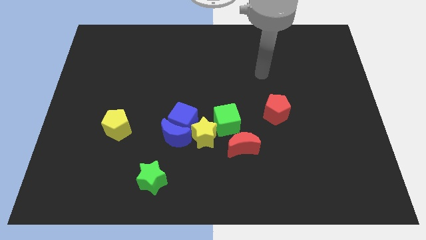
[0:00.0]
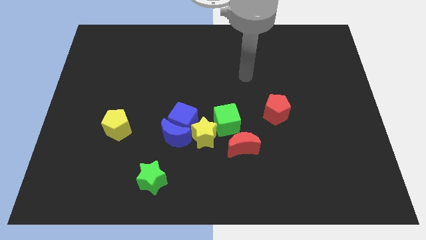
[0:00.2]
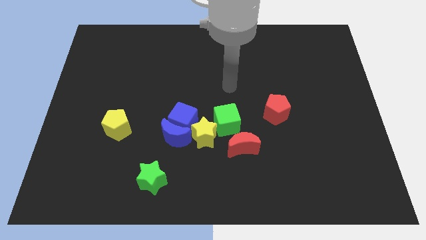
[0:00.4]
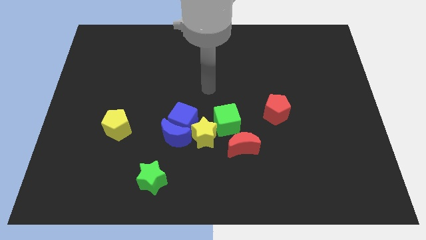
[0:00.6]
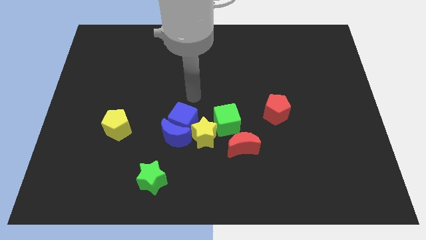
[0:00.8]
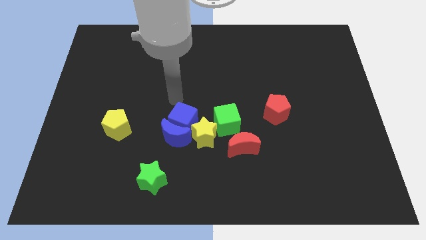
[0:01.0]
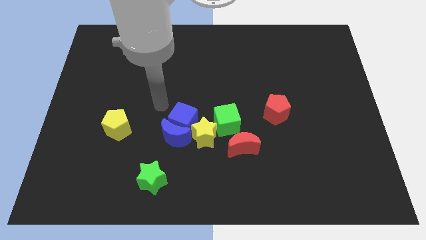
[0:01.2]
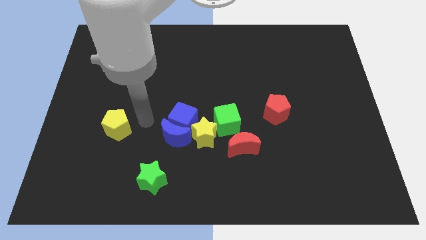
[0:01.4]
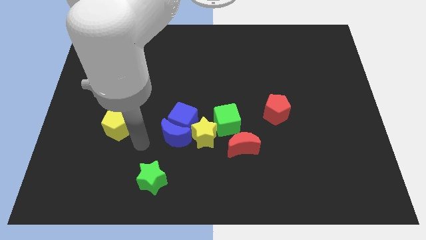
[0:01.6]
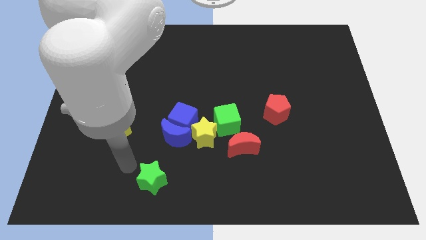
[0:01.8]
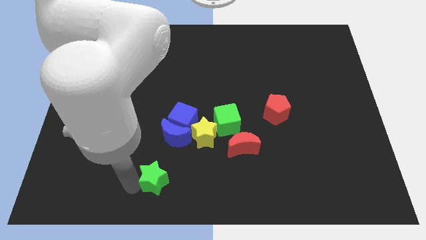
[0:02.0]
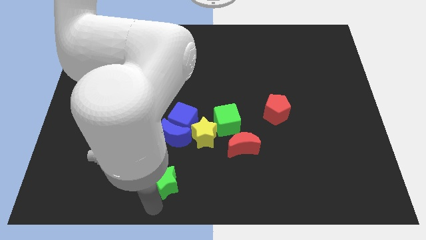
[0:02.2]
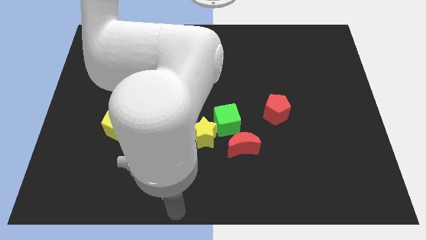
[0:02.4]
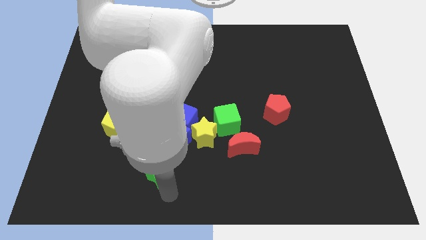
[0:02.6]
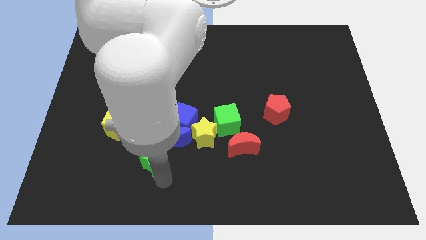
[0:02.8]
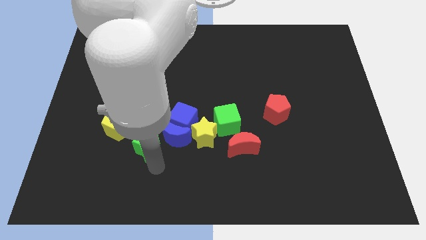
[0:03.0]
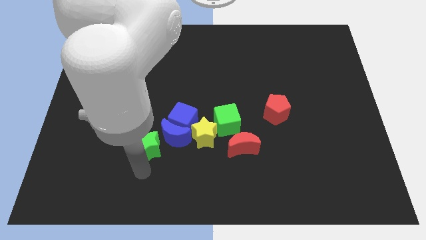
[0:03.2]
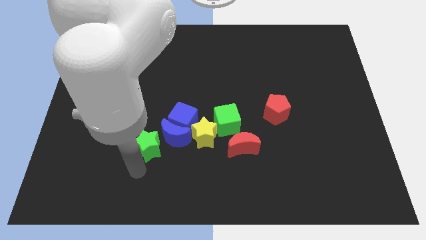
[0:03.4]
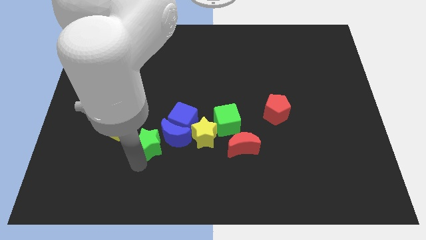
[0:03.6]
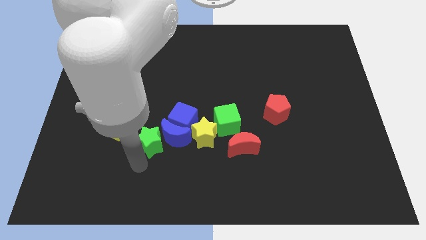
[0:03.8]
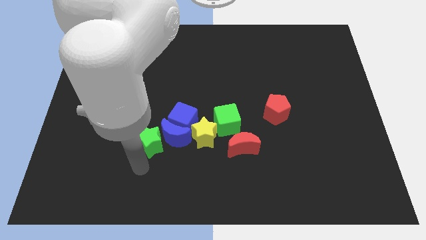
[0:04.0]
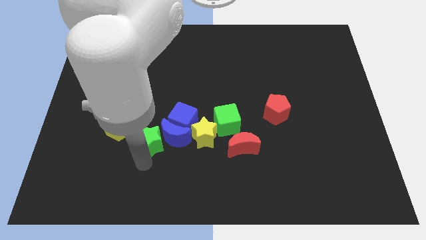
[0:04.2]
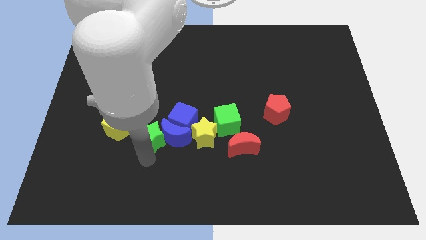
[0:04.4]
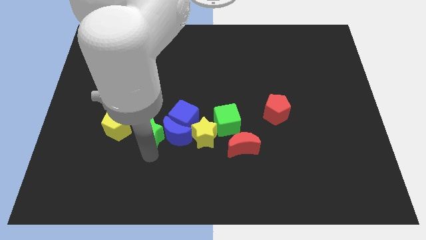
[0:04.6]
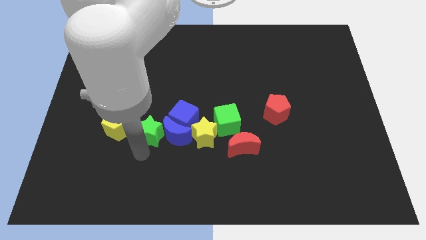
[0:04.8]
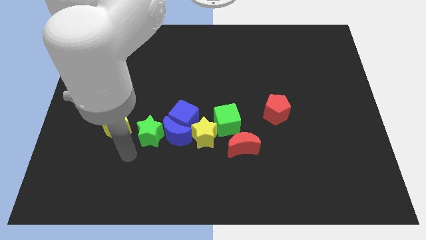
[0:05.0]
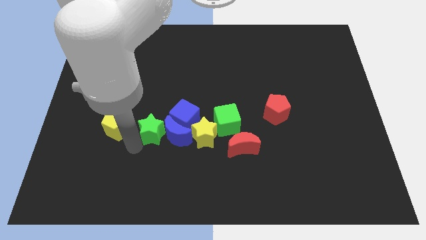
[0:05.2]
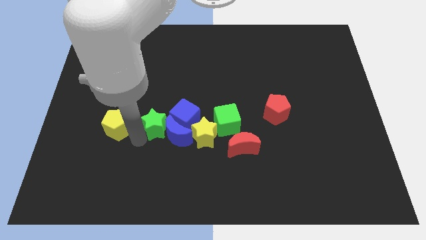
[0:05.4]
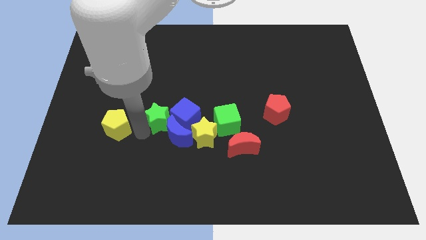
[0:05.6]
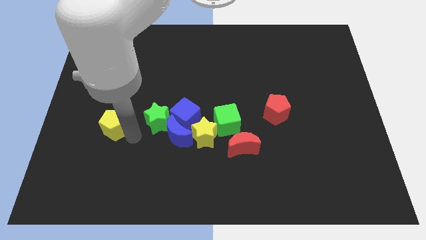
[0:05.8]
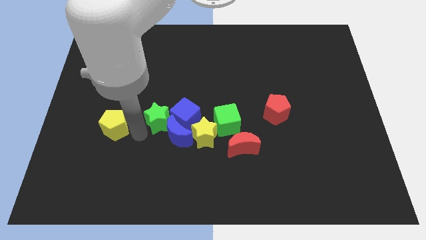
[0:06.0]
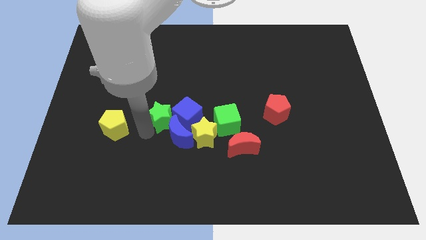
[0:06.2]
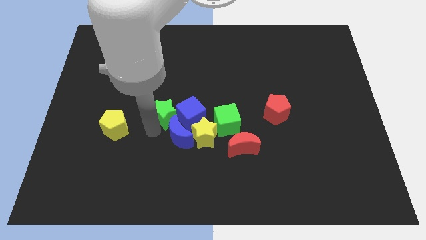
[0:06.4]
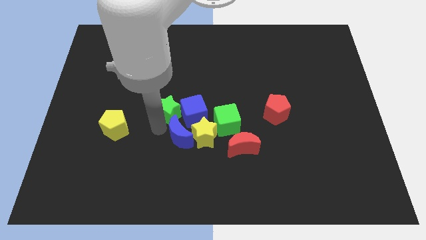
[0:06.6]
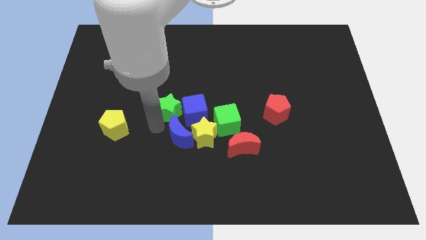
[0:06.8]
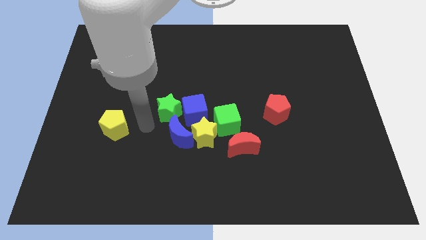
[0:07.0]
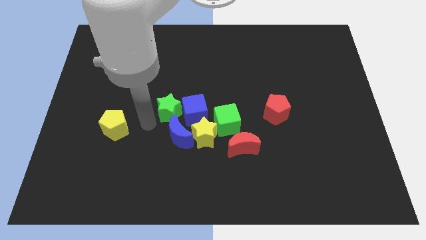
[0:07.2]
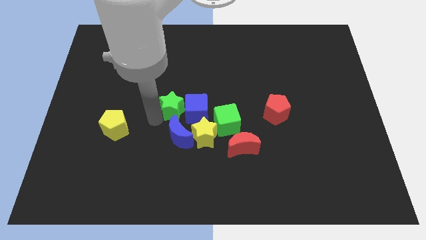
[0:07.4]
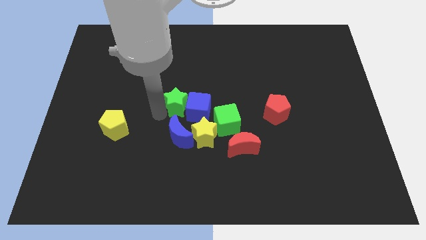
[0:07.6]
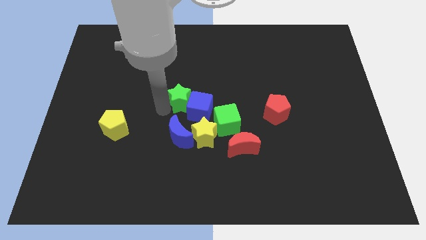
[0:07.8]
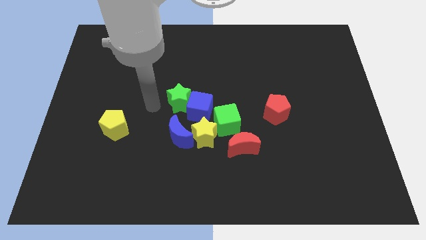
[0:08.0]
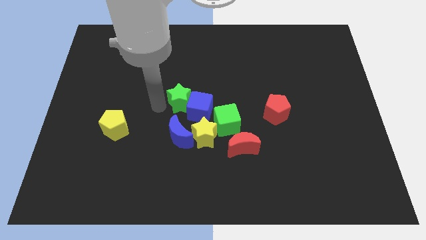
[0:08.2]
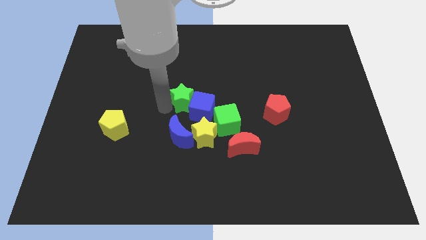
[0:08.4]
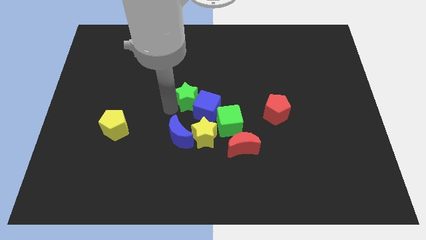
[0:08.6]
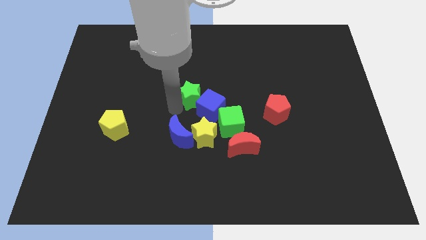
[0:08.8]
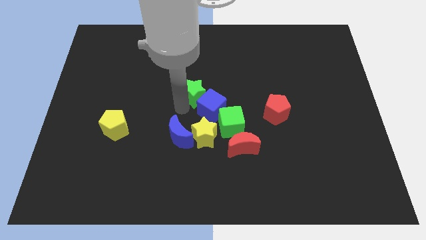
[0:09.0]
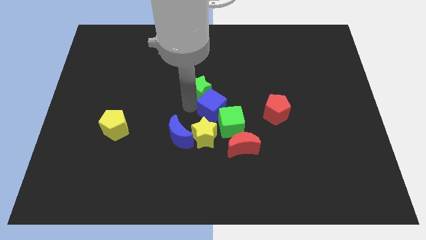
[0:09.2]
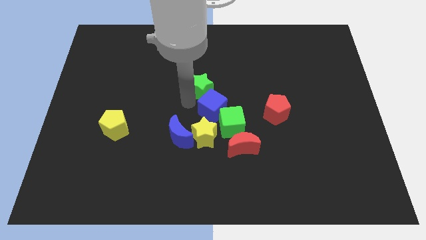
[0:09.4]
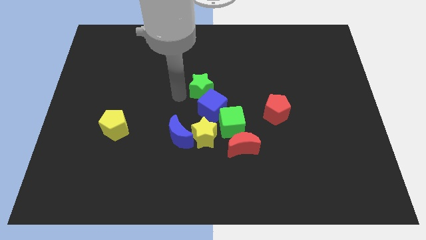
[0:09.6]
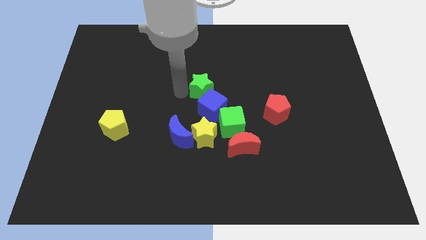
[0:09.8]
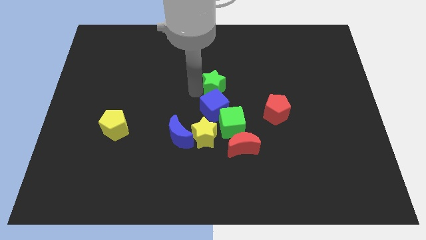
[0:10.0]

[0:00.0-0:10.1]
push the green star to the top side of the green cube

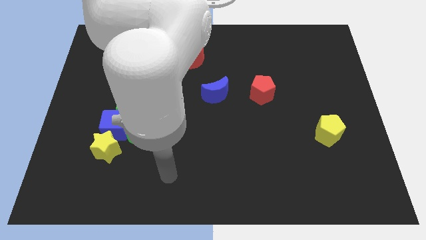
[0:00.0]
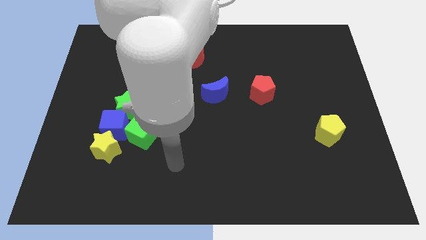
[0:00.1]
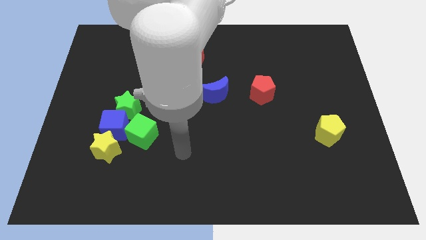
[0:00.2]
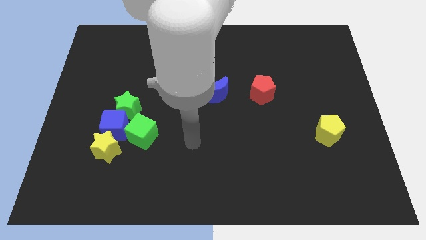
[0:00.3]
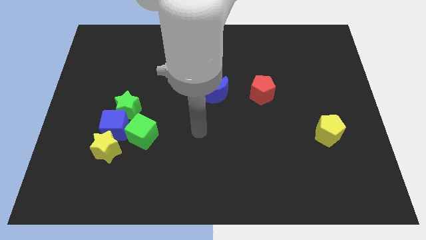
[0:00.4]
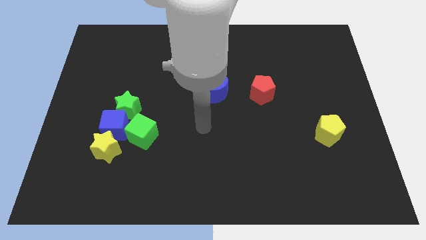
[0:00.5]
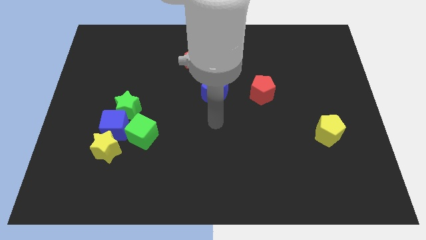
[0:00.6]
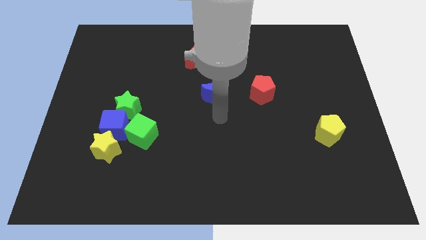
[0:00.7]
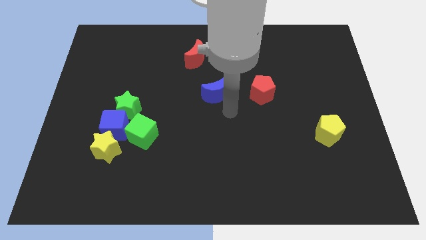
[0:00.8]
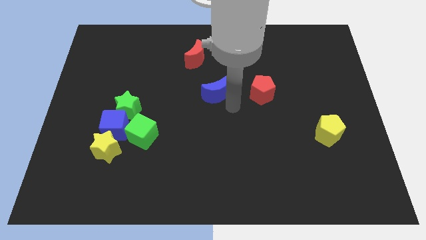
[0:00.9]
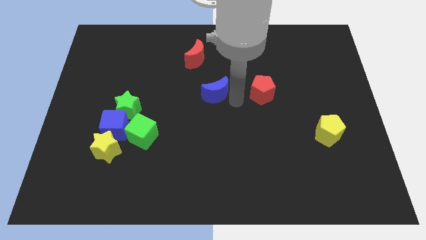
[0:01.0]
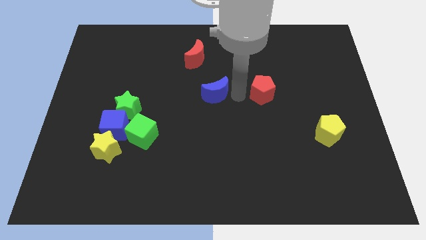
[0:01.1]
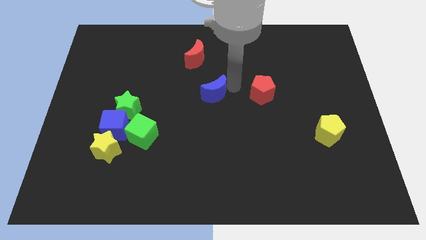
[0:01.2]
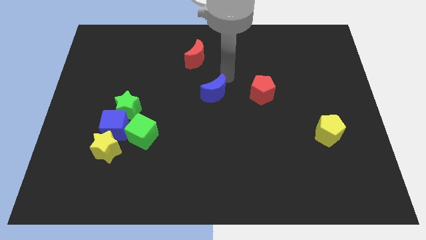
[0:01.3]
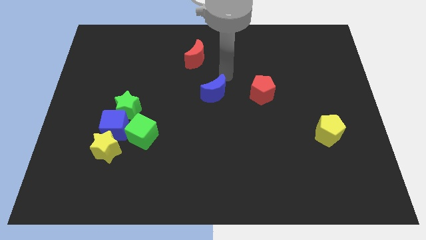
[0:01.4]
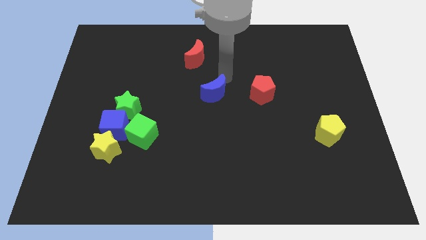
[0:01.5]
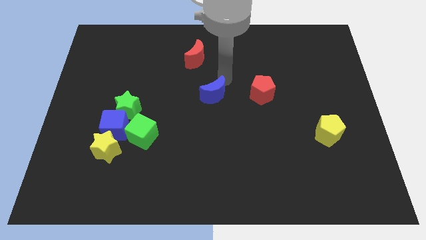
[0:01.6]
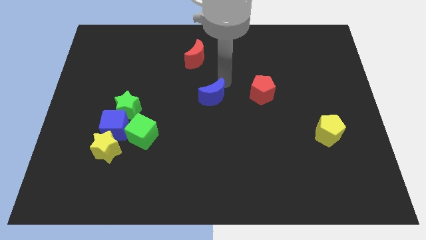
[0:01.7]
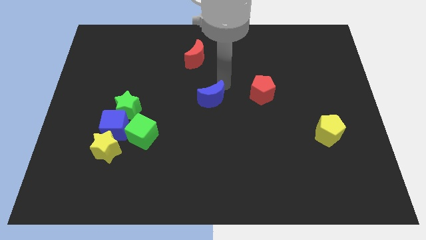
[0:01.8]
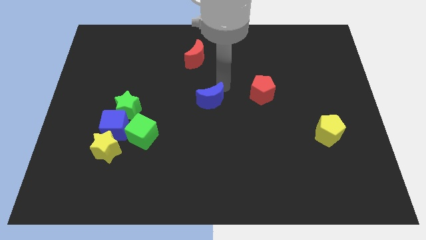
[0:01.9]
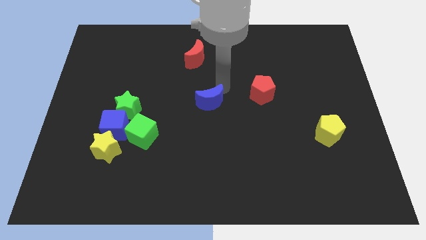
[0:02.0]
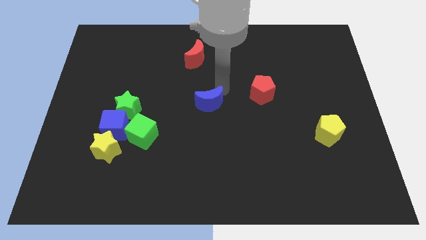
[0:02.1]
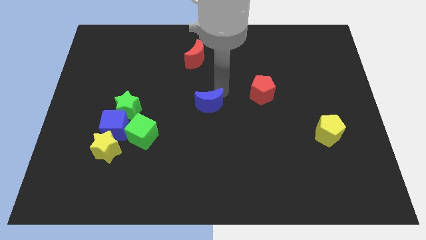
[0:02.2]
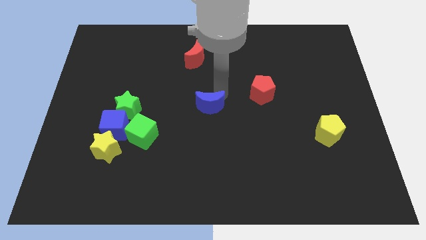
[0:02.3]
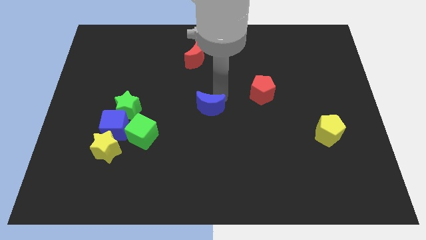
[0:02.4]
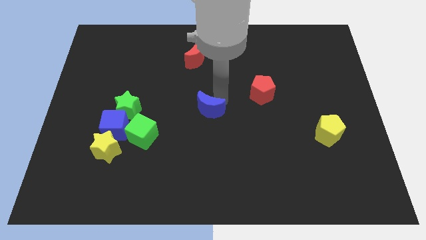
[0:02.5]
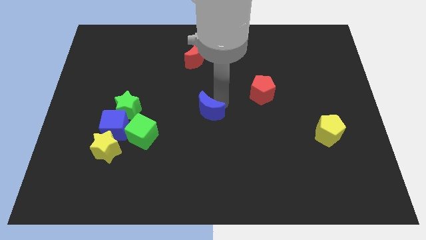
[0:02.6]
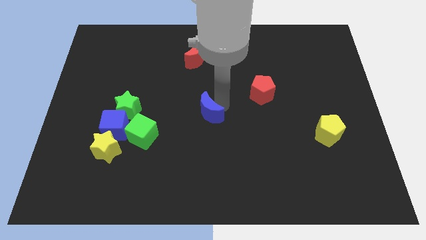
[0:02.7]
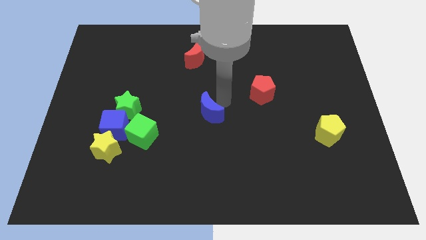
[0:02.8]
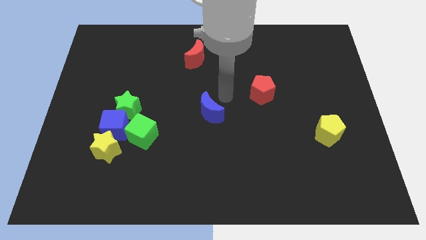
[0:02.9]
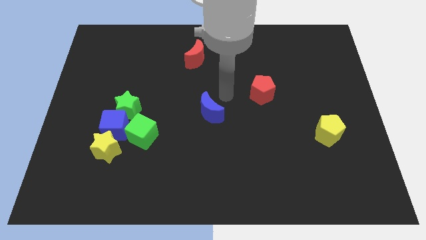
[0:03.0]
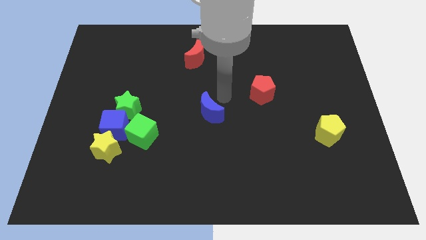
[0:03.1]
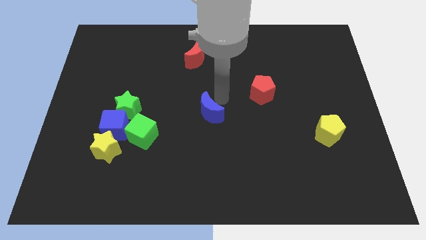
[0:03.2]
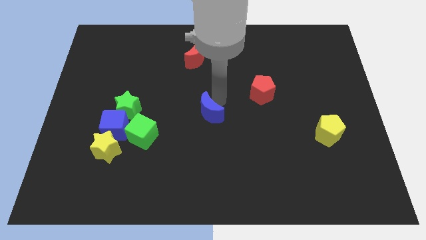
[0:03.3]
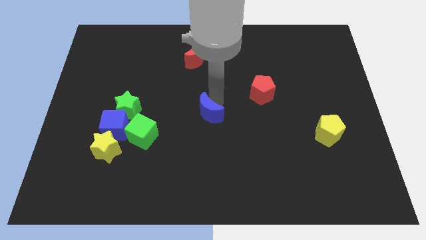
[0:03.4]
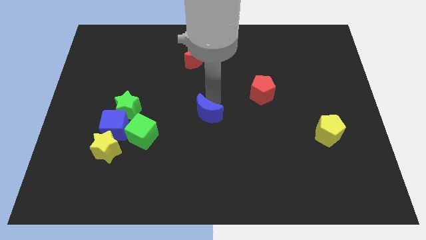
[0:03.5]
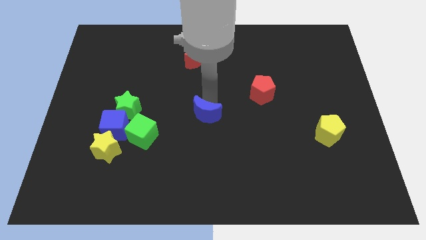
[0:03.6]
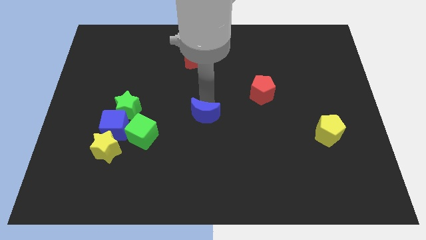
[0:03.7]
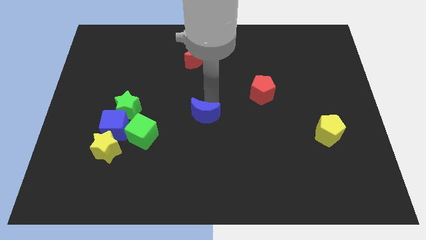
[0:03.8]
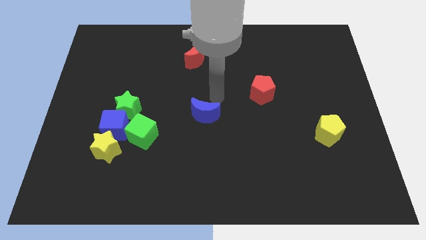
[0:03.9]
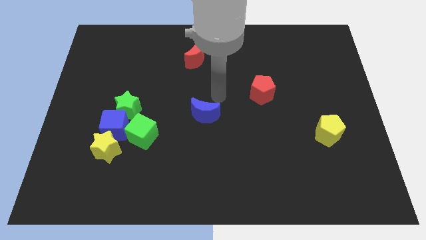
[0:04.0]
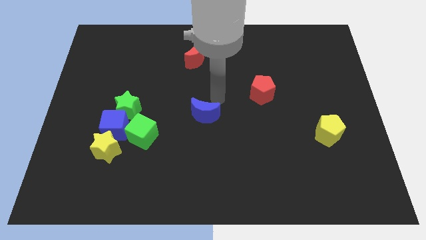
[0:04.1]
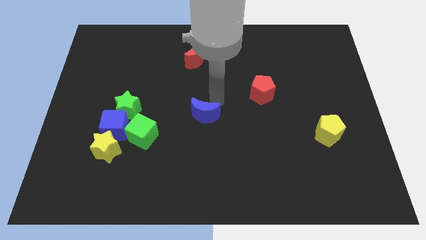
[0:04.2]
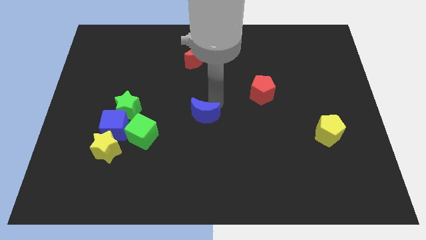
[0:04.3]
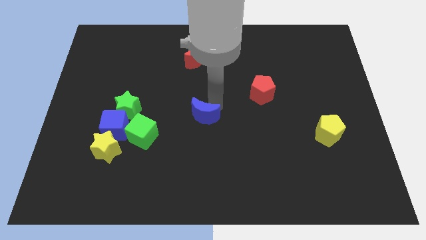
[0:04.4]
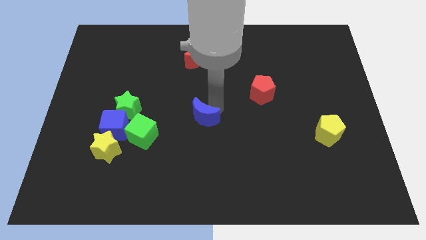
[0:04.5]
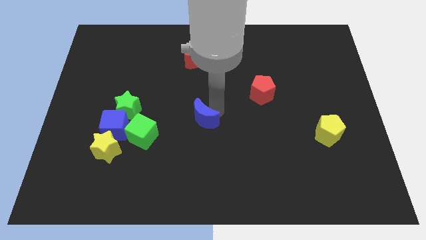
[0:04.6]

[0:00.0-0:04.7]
move the blue moon to the right side of the green cube
